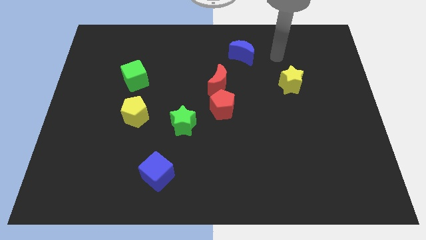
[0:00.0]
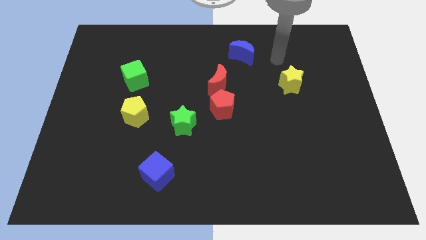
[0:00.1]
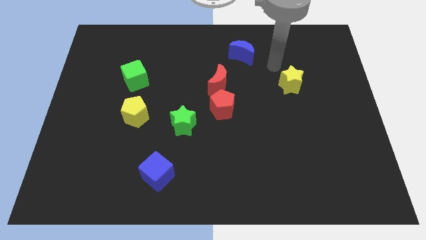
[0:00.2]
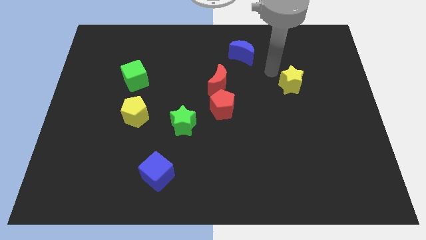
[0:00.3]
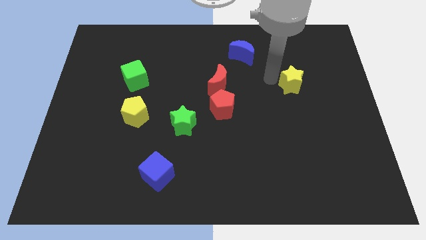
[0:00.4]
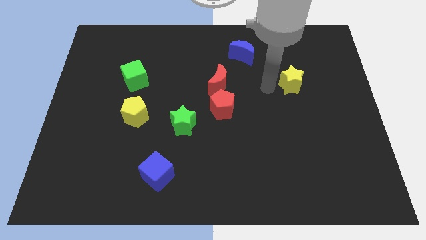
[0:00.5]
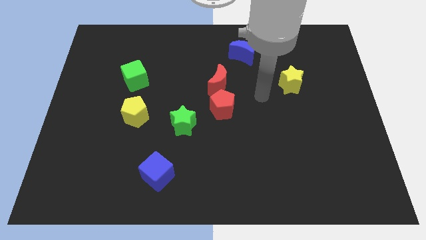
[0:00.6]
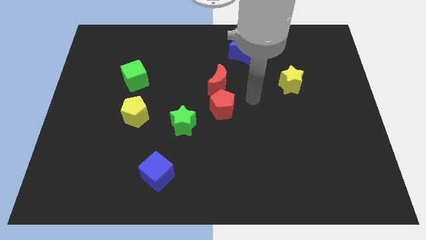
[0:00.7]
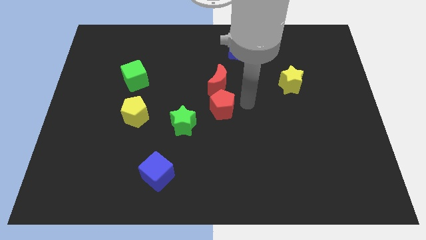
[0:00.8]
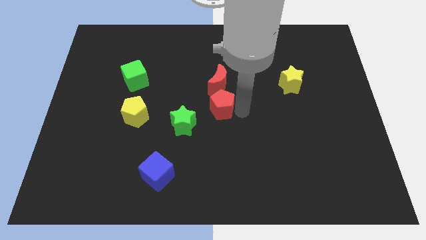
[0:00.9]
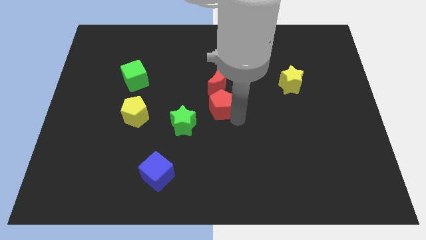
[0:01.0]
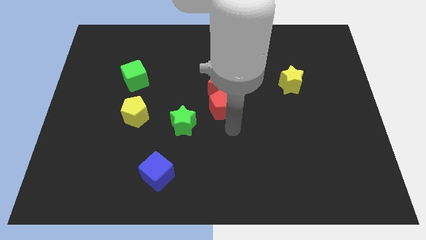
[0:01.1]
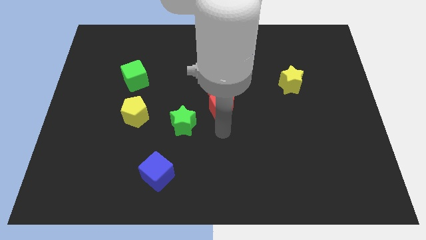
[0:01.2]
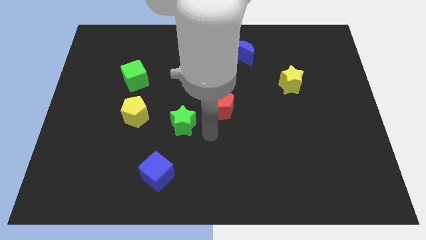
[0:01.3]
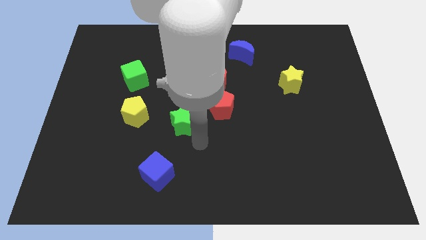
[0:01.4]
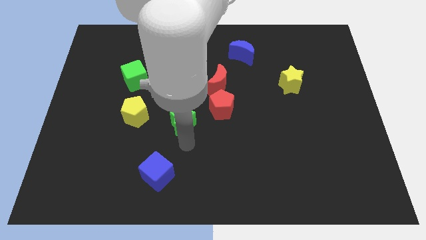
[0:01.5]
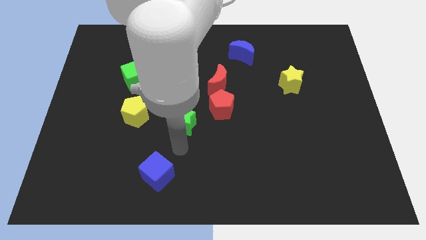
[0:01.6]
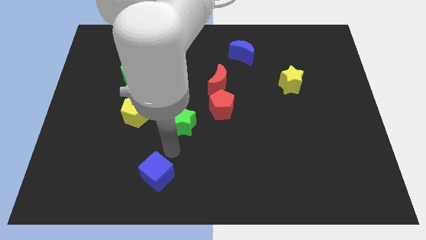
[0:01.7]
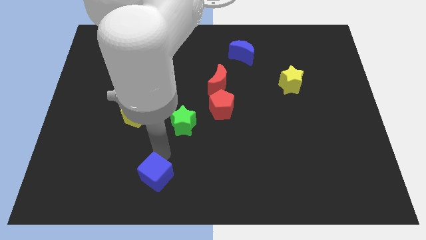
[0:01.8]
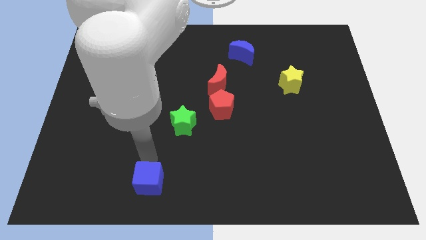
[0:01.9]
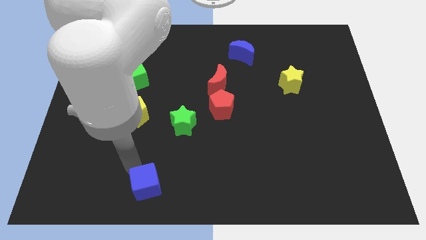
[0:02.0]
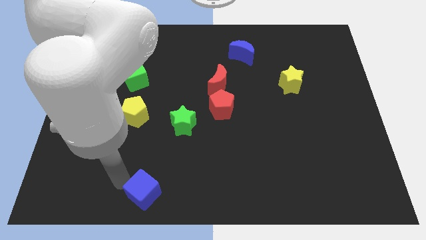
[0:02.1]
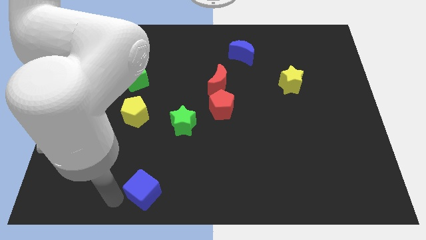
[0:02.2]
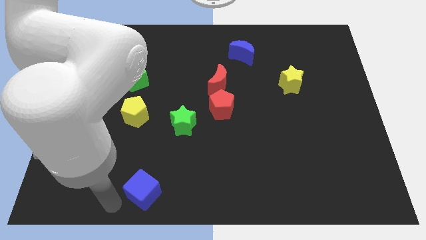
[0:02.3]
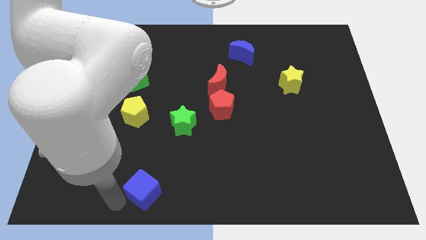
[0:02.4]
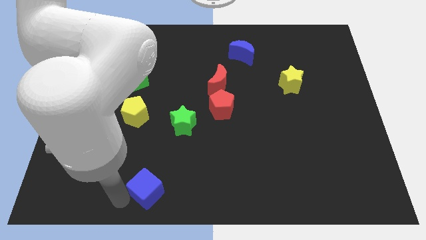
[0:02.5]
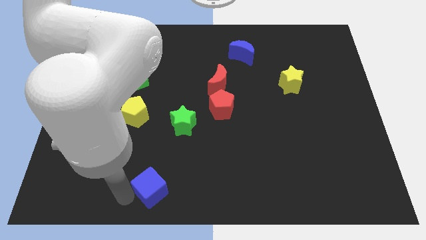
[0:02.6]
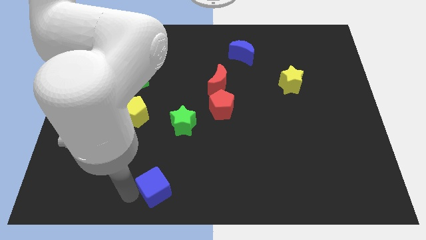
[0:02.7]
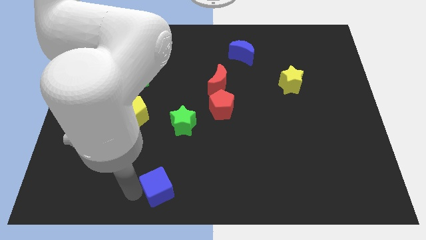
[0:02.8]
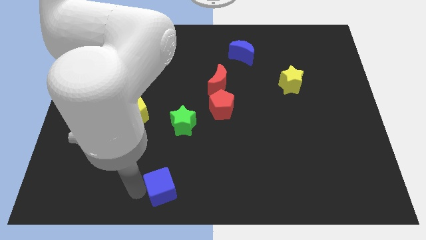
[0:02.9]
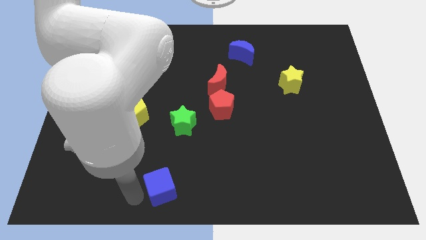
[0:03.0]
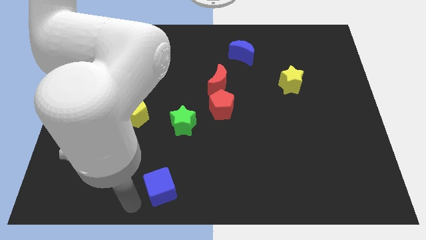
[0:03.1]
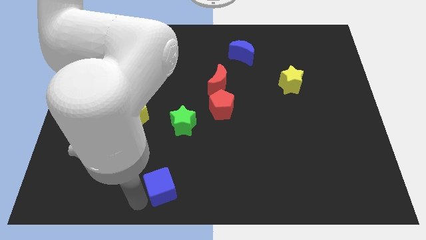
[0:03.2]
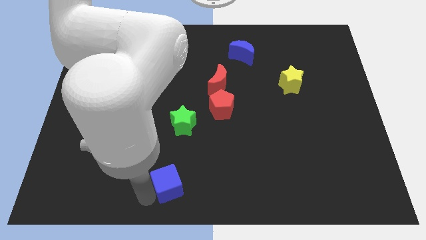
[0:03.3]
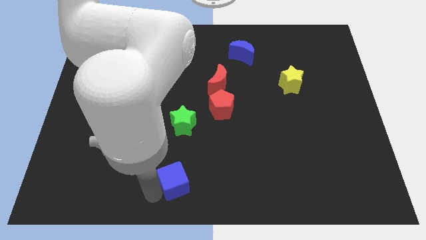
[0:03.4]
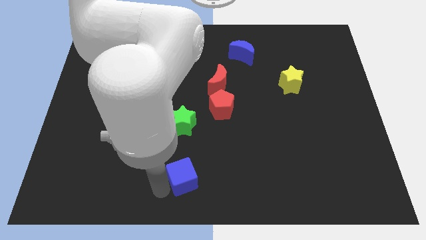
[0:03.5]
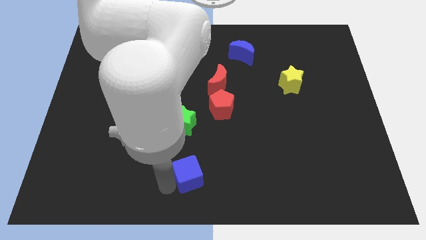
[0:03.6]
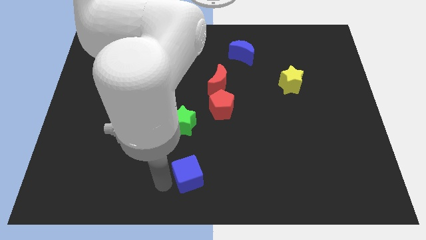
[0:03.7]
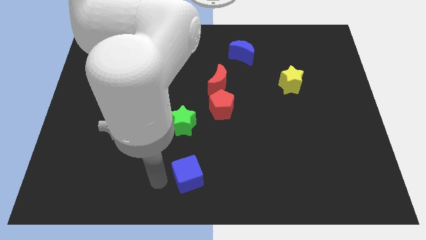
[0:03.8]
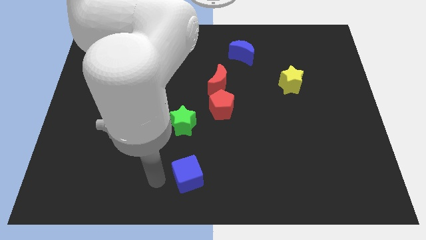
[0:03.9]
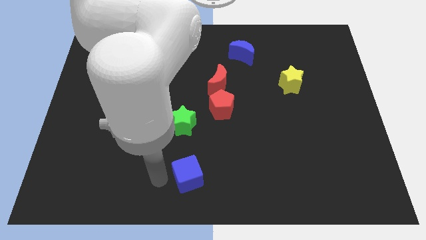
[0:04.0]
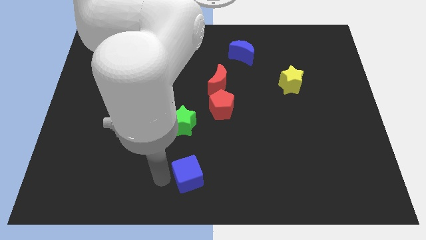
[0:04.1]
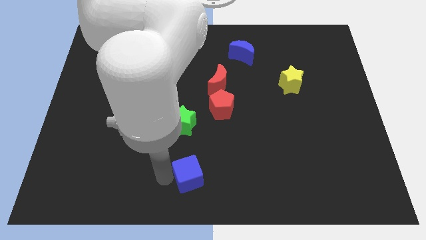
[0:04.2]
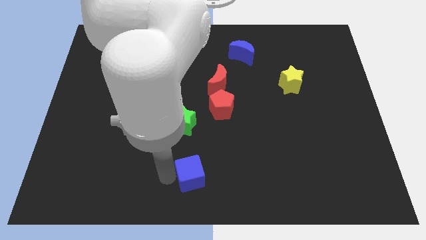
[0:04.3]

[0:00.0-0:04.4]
slide the blue cube a little to the right

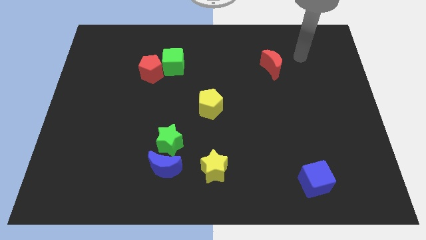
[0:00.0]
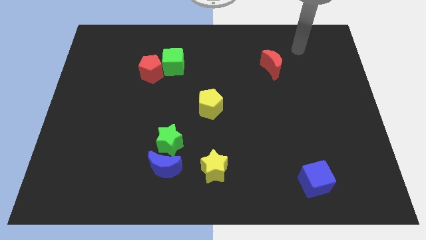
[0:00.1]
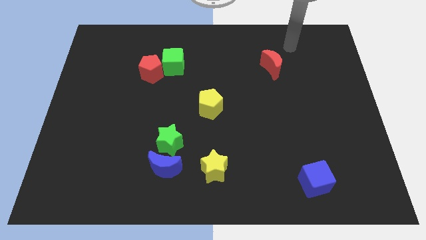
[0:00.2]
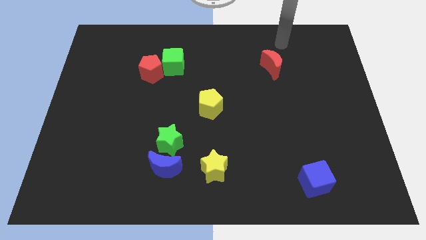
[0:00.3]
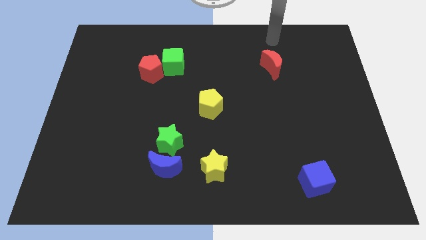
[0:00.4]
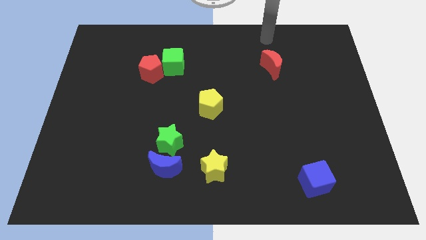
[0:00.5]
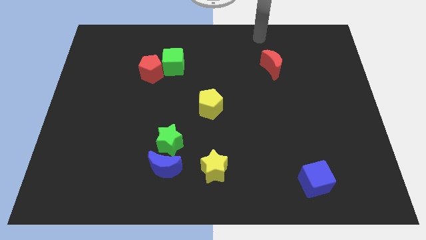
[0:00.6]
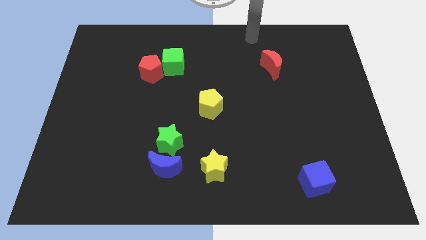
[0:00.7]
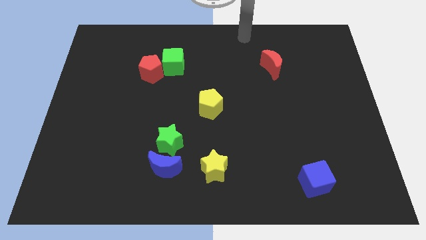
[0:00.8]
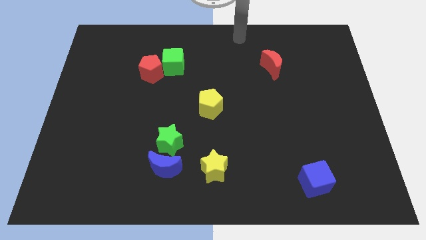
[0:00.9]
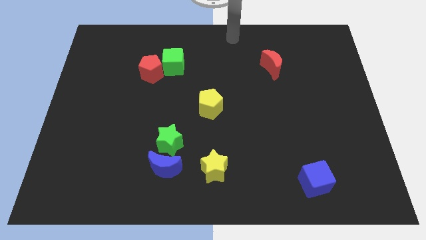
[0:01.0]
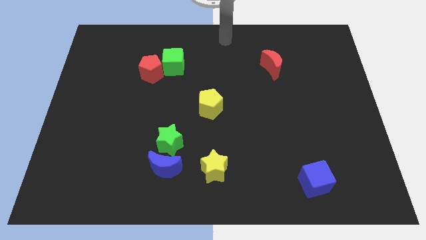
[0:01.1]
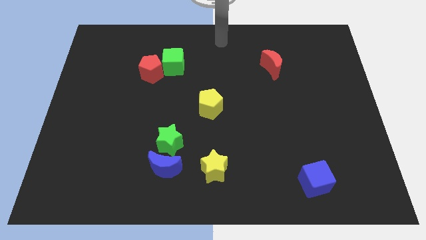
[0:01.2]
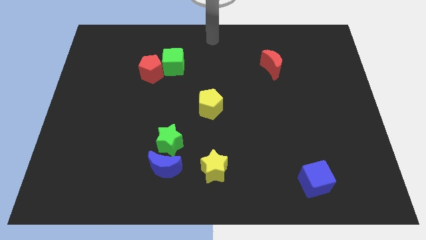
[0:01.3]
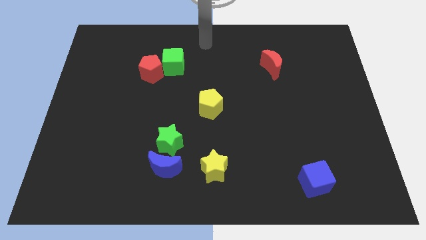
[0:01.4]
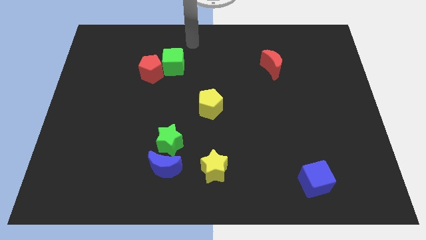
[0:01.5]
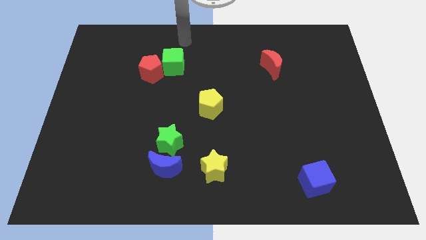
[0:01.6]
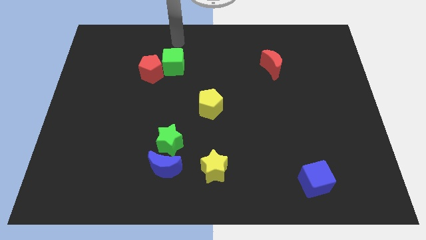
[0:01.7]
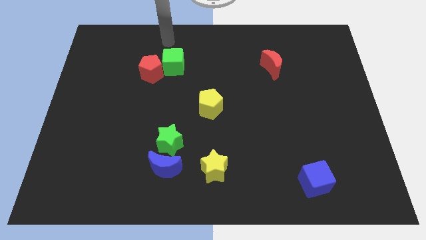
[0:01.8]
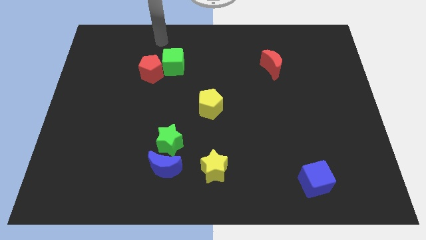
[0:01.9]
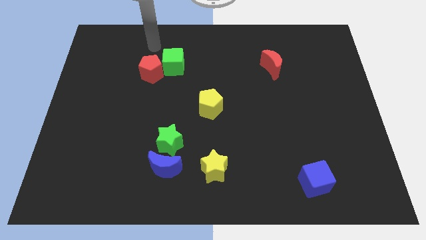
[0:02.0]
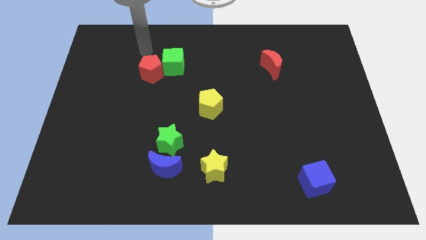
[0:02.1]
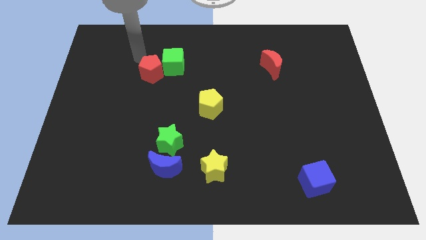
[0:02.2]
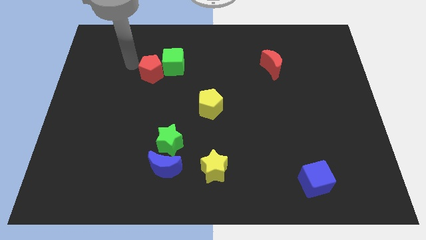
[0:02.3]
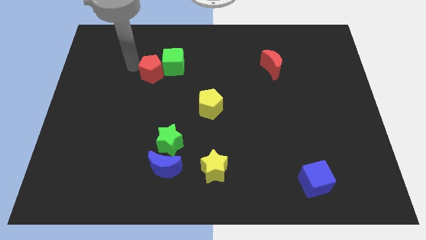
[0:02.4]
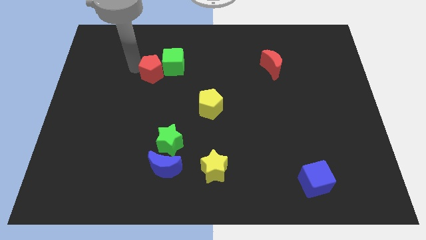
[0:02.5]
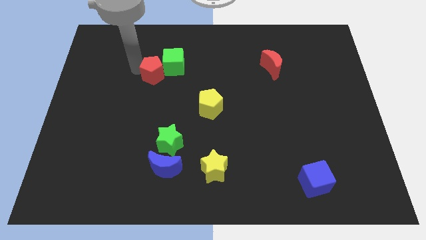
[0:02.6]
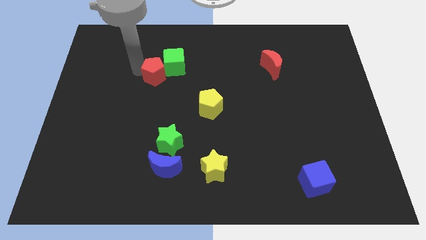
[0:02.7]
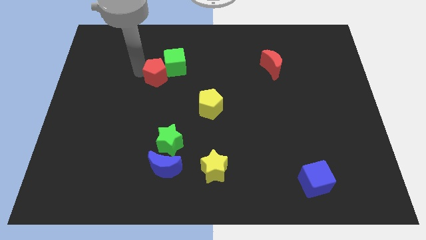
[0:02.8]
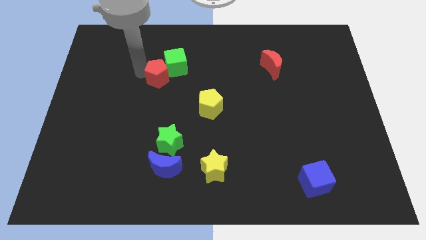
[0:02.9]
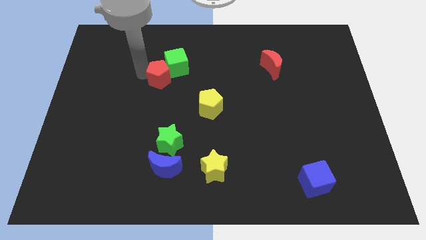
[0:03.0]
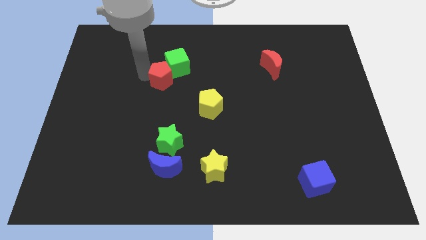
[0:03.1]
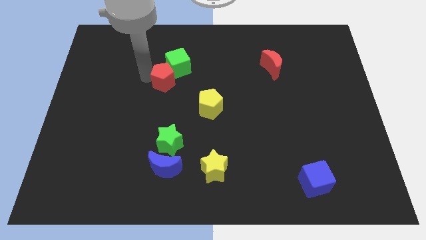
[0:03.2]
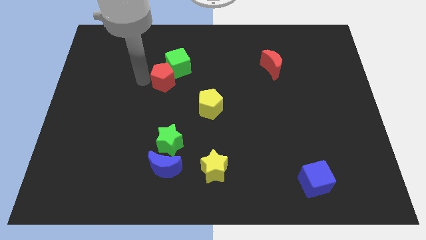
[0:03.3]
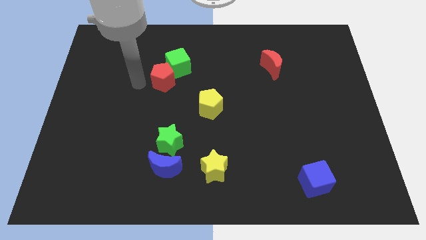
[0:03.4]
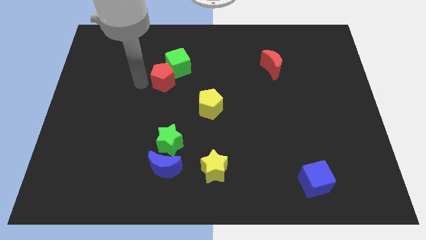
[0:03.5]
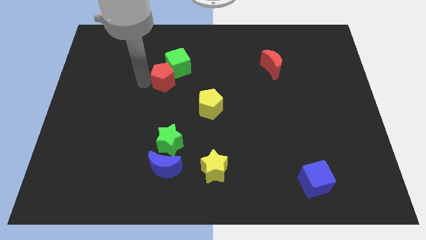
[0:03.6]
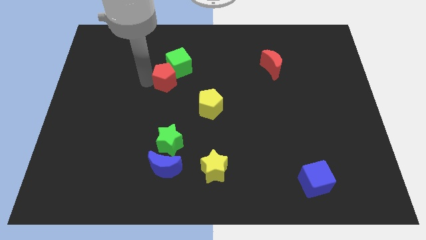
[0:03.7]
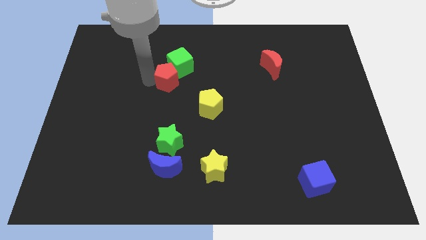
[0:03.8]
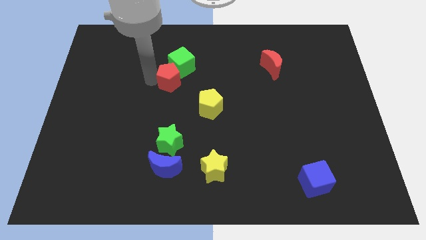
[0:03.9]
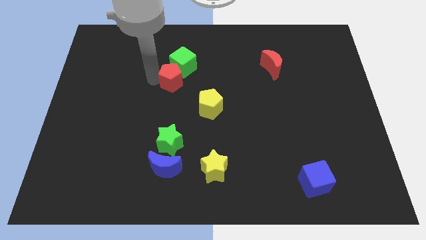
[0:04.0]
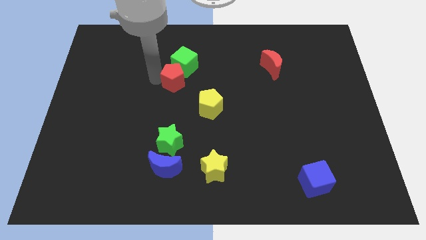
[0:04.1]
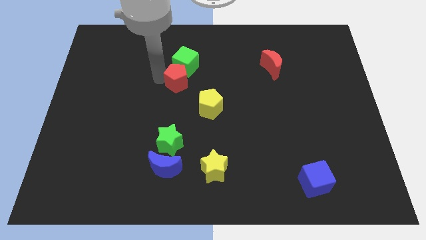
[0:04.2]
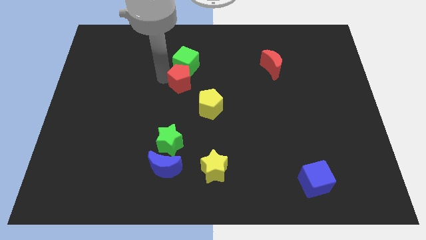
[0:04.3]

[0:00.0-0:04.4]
slightly slide the red pentagon right
